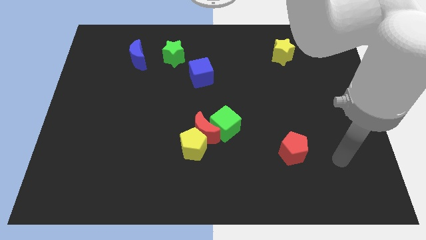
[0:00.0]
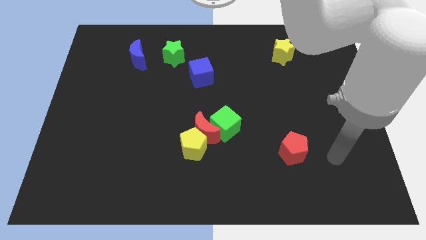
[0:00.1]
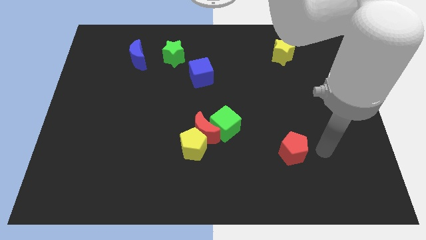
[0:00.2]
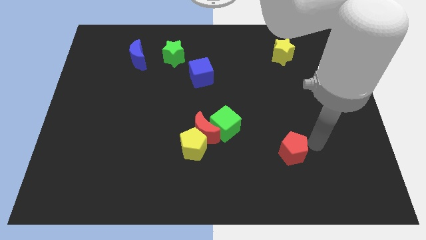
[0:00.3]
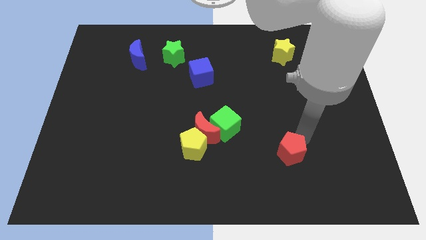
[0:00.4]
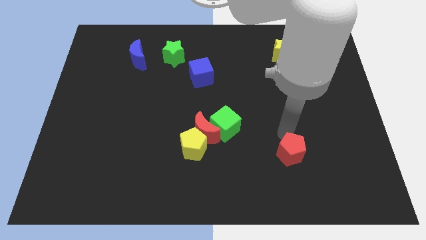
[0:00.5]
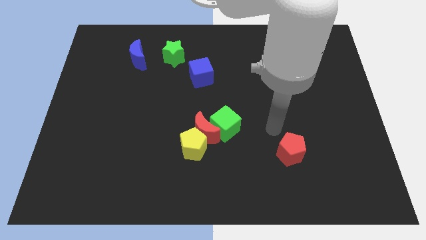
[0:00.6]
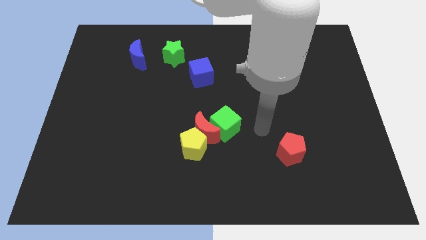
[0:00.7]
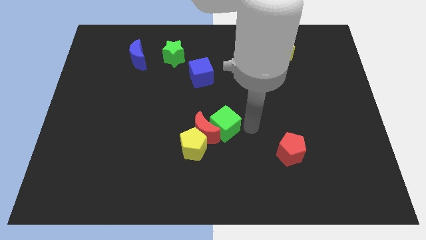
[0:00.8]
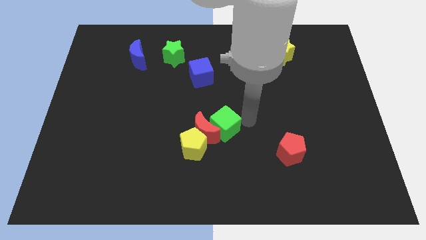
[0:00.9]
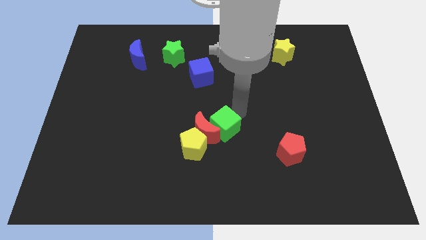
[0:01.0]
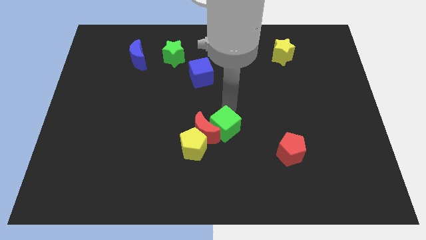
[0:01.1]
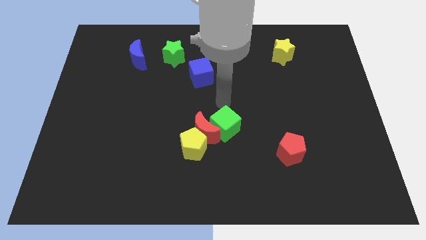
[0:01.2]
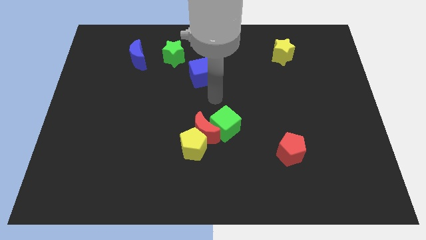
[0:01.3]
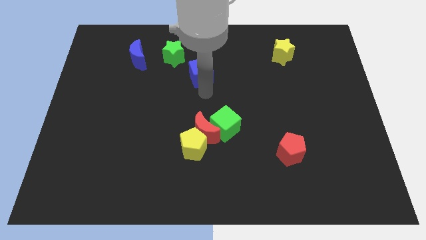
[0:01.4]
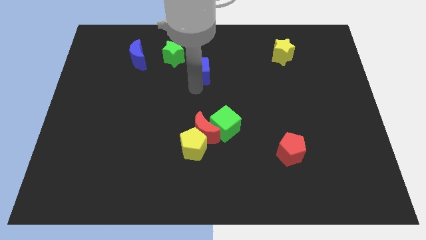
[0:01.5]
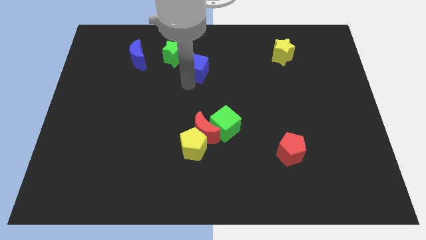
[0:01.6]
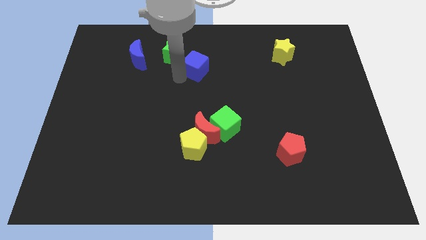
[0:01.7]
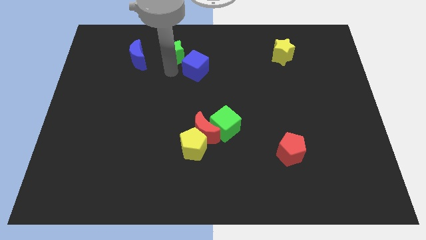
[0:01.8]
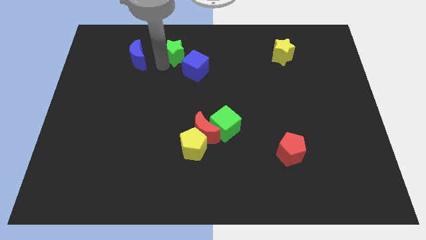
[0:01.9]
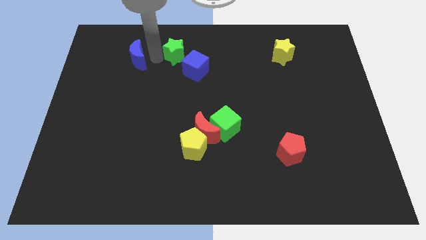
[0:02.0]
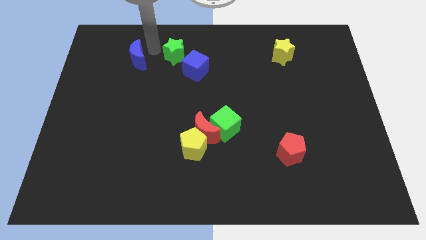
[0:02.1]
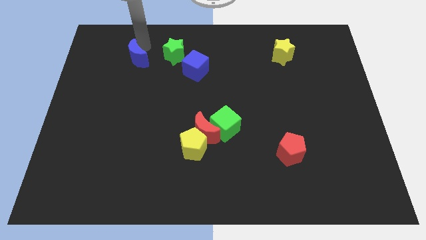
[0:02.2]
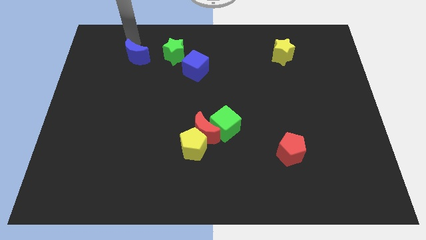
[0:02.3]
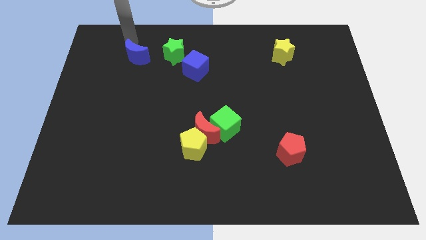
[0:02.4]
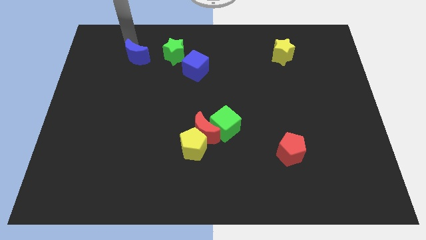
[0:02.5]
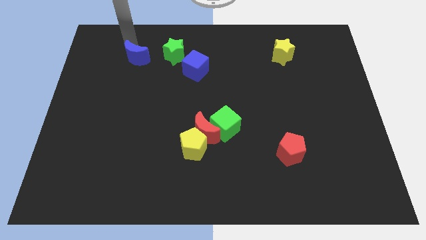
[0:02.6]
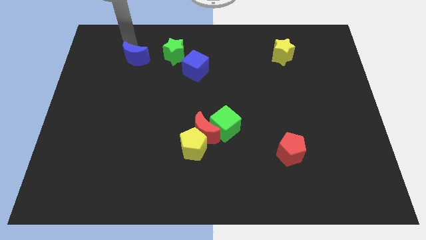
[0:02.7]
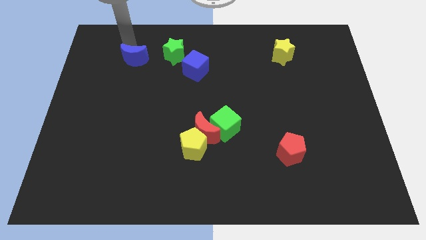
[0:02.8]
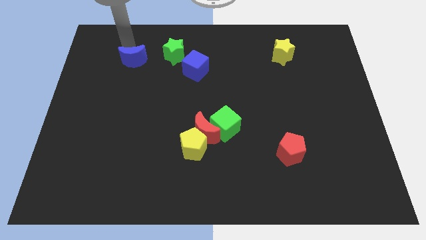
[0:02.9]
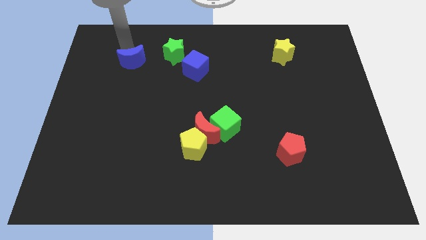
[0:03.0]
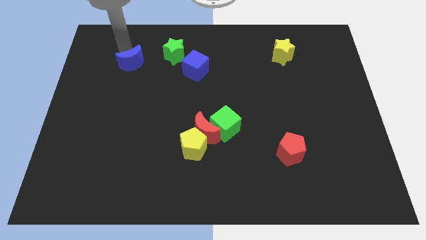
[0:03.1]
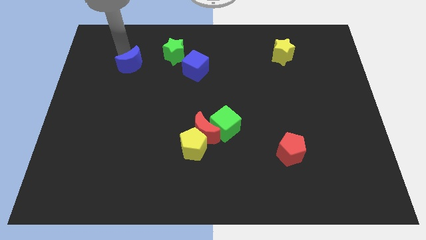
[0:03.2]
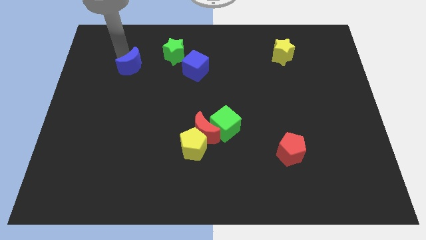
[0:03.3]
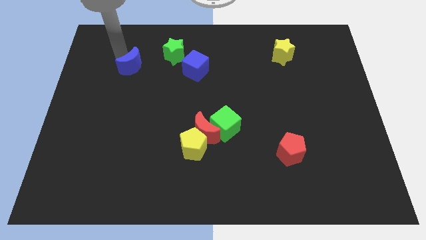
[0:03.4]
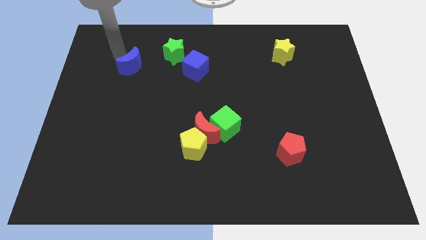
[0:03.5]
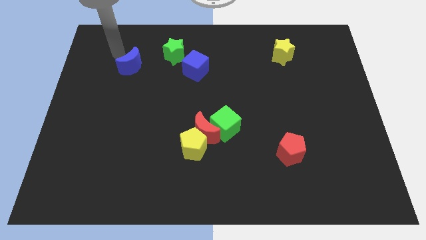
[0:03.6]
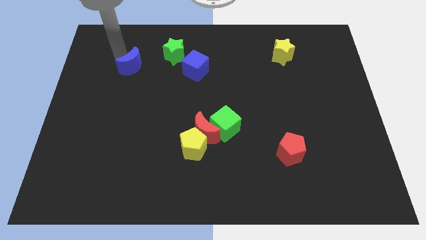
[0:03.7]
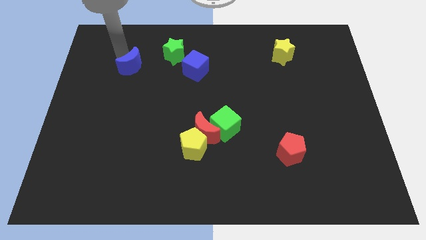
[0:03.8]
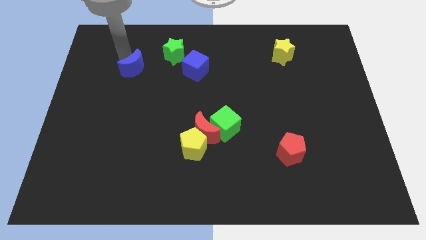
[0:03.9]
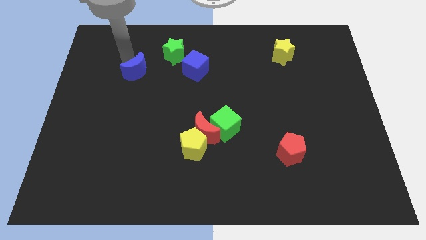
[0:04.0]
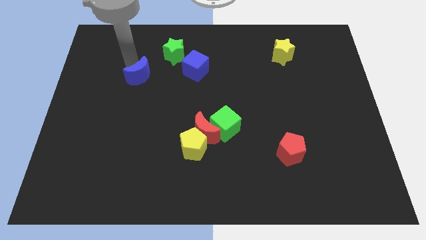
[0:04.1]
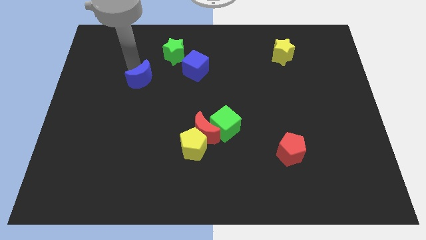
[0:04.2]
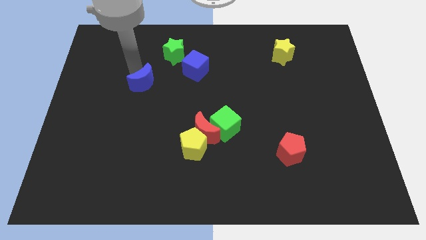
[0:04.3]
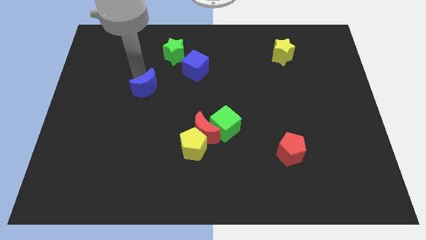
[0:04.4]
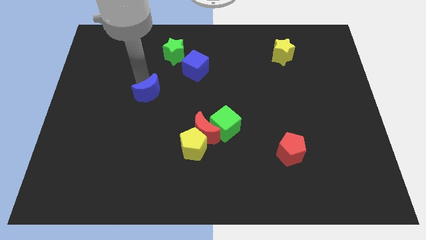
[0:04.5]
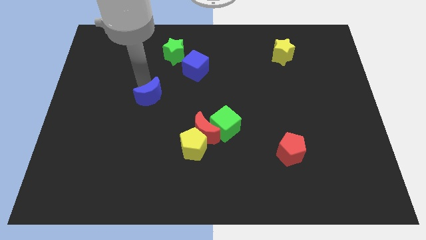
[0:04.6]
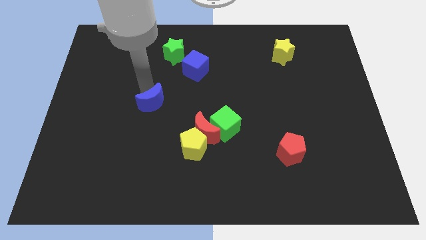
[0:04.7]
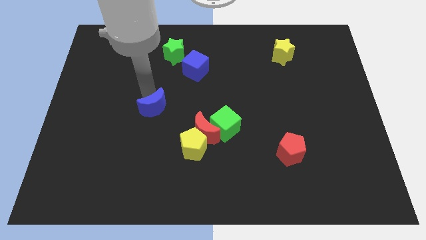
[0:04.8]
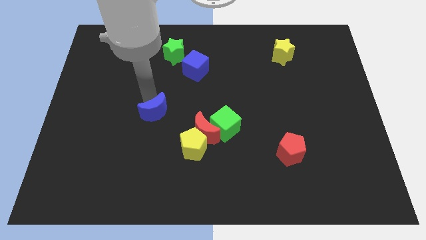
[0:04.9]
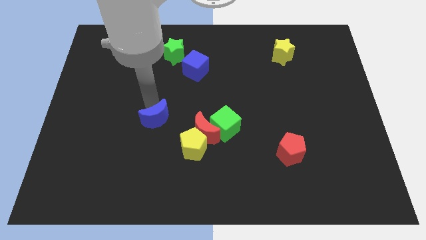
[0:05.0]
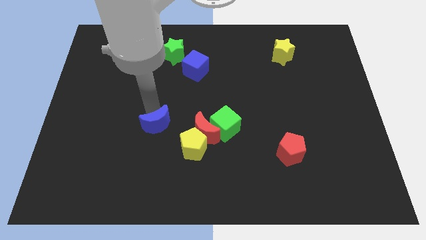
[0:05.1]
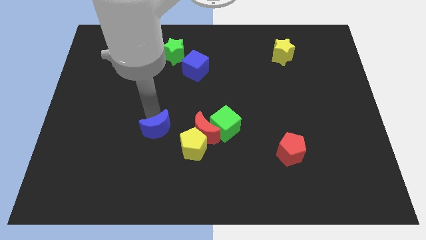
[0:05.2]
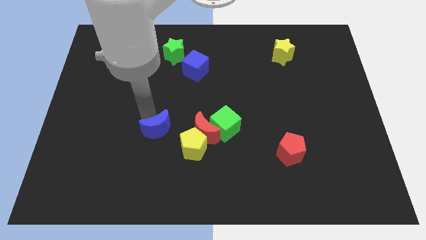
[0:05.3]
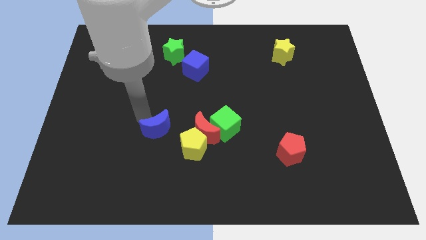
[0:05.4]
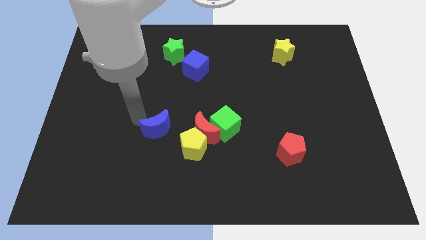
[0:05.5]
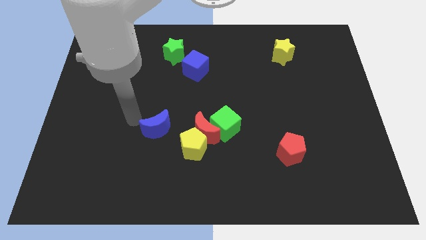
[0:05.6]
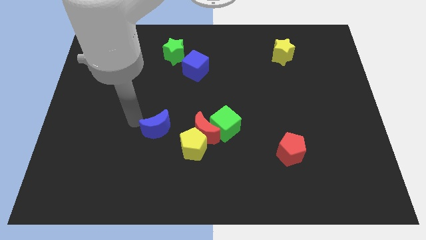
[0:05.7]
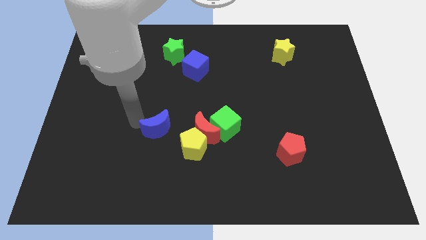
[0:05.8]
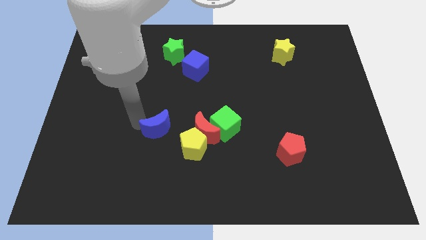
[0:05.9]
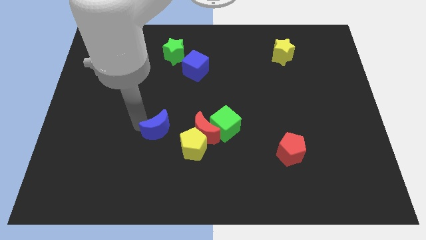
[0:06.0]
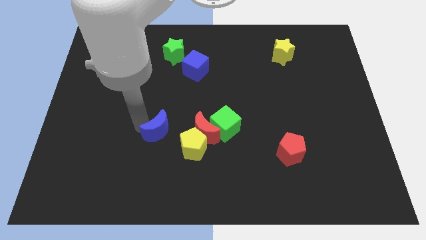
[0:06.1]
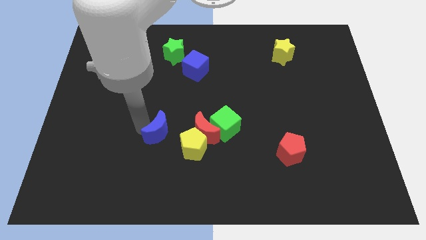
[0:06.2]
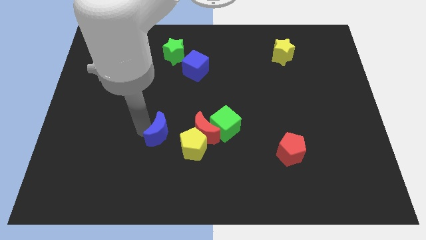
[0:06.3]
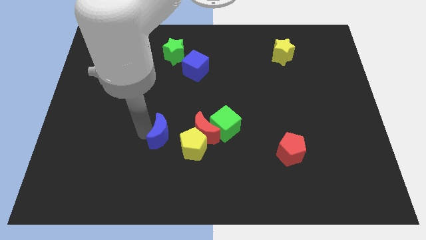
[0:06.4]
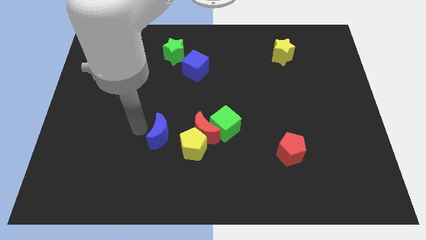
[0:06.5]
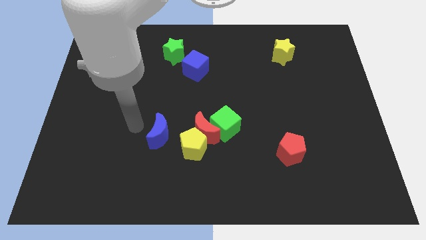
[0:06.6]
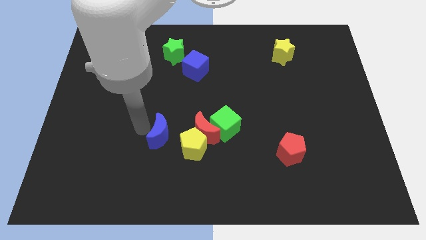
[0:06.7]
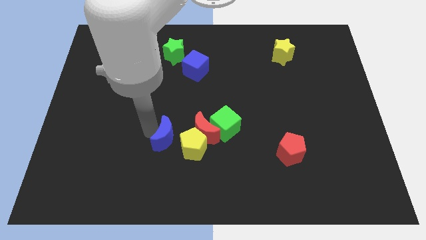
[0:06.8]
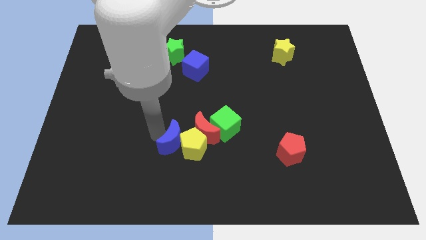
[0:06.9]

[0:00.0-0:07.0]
push the blue moon next to the yellow pentagon
